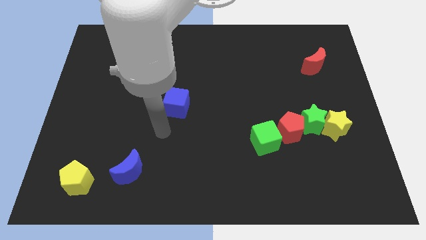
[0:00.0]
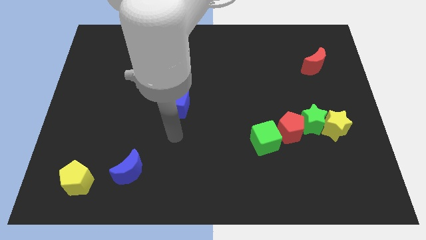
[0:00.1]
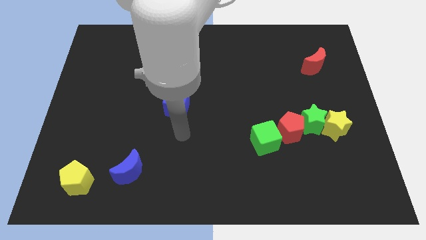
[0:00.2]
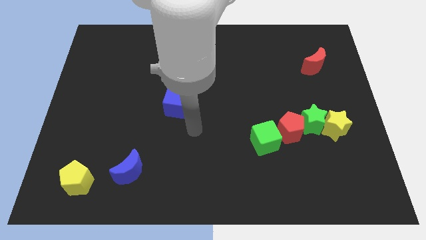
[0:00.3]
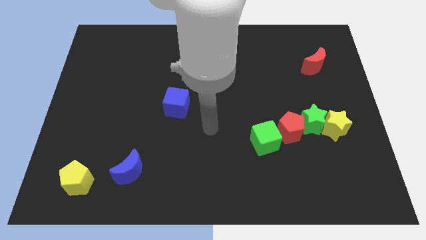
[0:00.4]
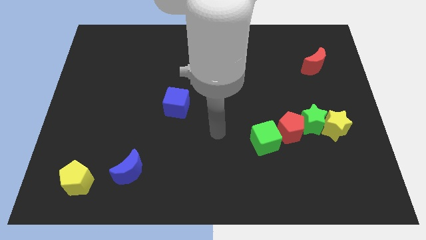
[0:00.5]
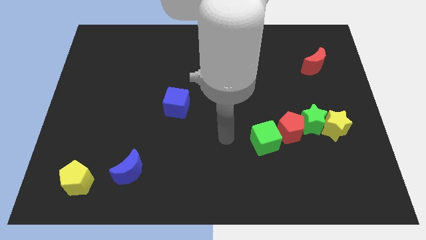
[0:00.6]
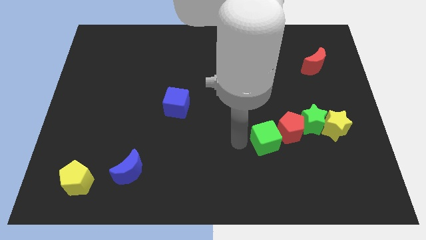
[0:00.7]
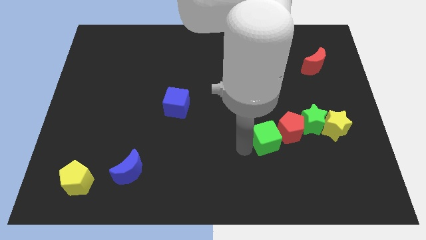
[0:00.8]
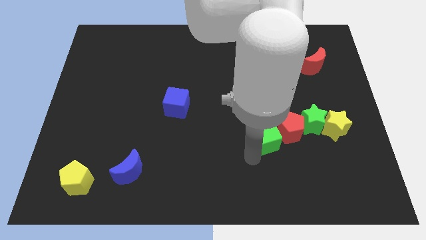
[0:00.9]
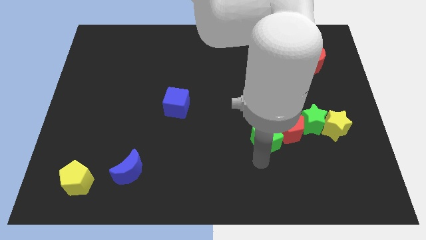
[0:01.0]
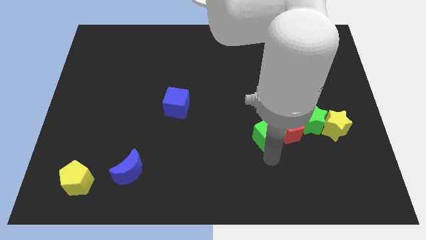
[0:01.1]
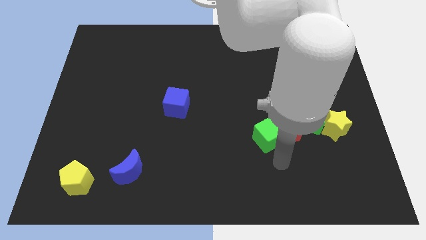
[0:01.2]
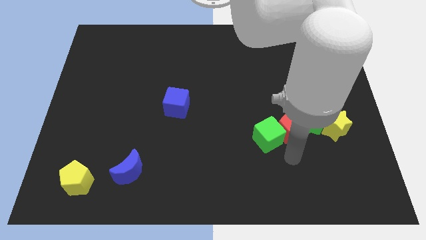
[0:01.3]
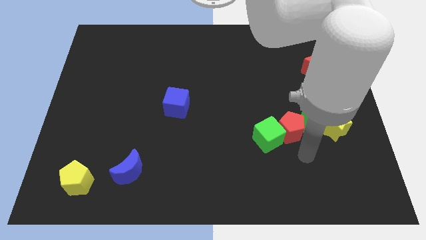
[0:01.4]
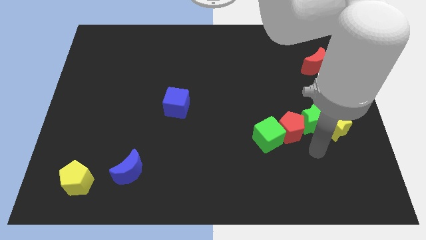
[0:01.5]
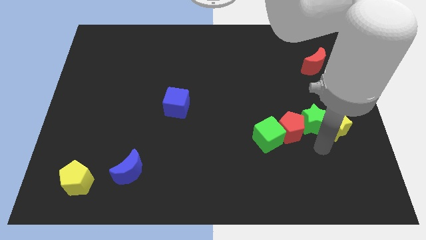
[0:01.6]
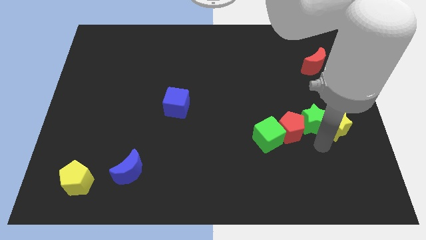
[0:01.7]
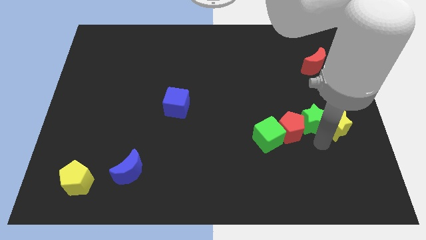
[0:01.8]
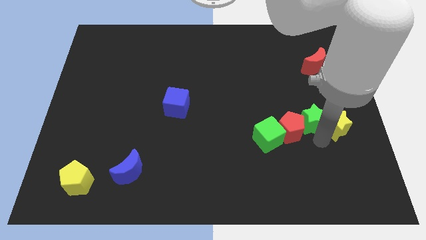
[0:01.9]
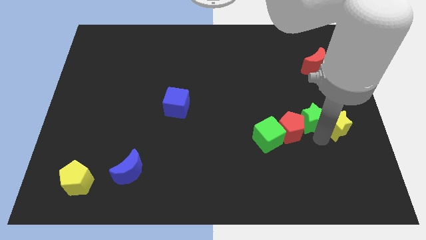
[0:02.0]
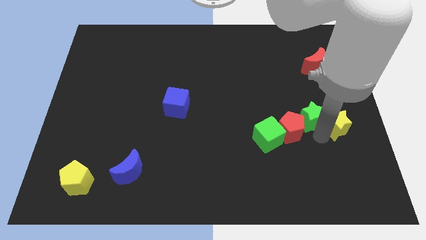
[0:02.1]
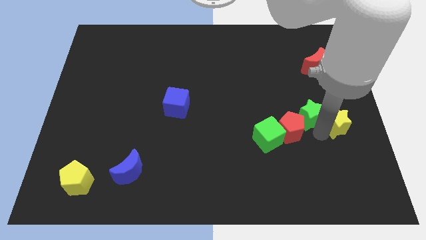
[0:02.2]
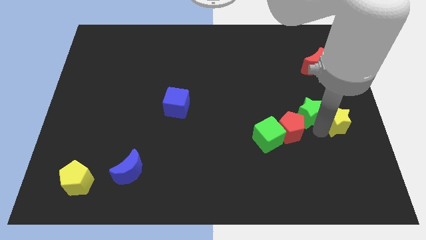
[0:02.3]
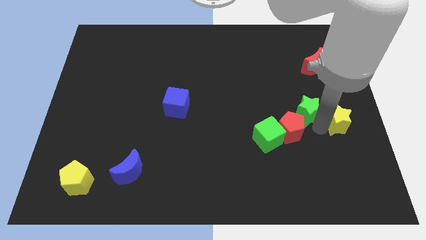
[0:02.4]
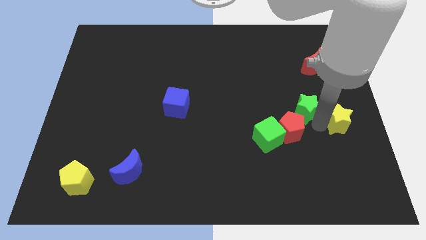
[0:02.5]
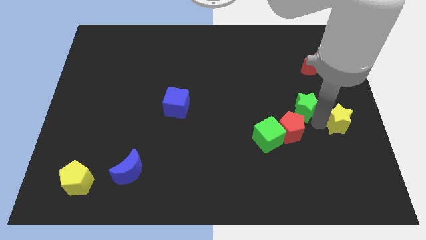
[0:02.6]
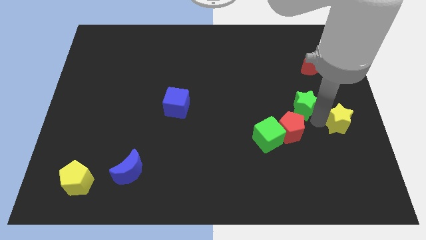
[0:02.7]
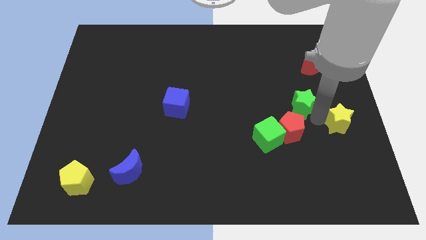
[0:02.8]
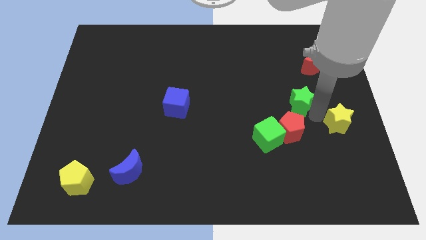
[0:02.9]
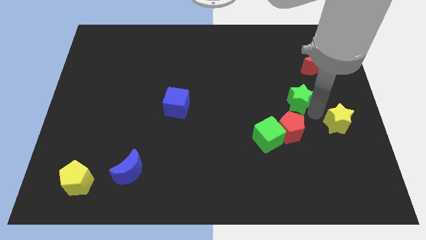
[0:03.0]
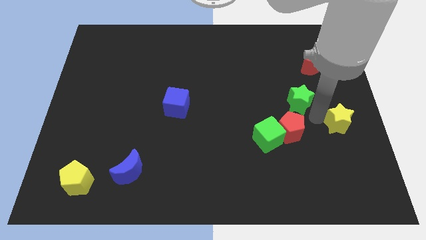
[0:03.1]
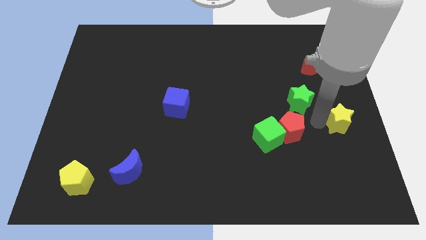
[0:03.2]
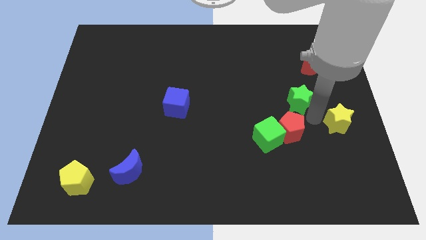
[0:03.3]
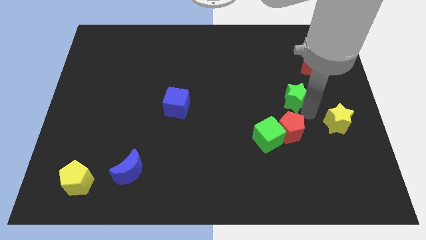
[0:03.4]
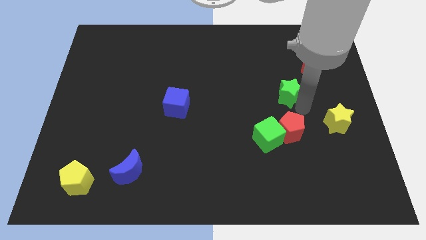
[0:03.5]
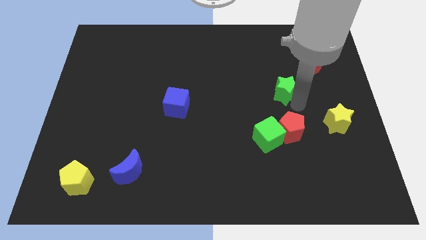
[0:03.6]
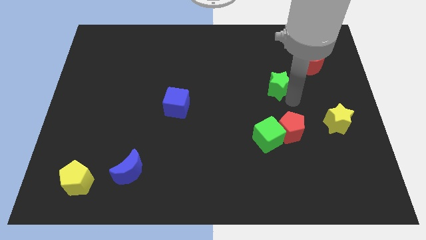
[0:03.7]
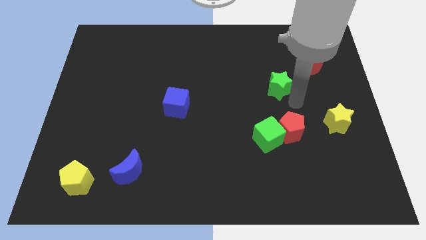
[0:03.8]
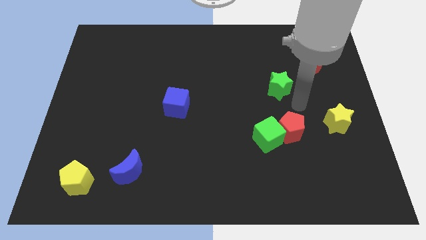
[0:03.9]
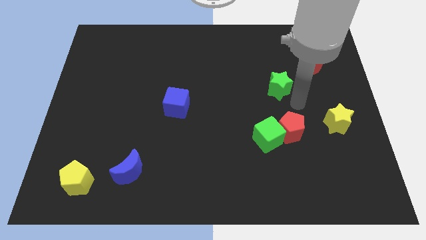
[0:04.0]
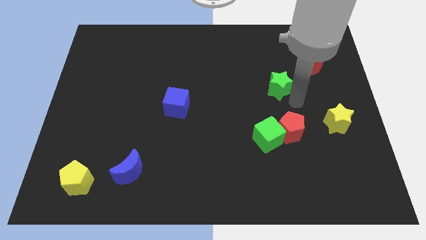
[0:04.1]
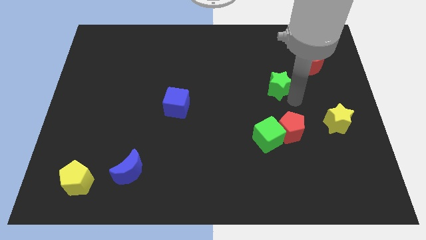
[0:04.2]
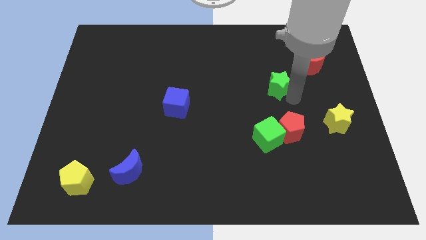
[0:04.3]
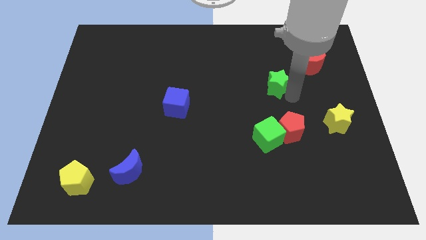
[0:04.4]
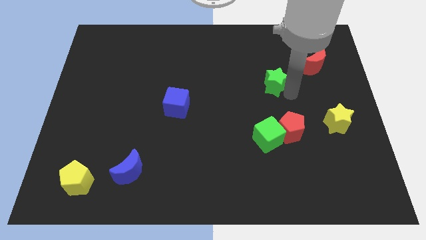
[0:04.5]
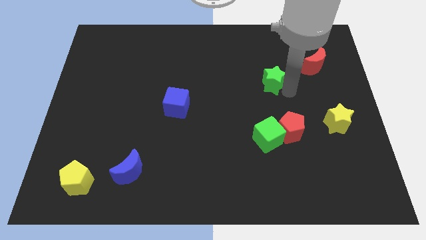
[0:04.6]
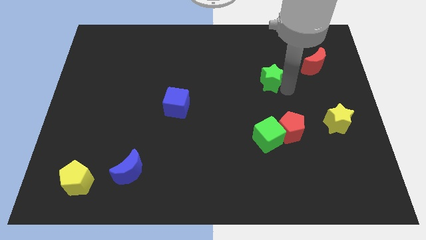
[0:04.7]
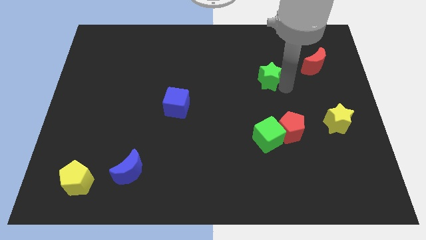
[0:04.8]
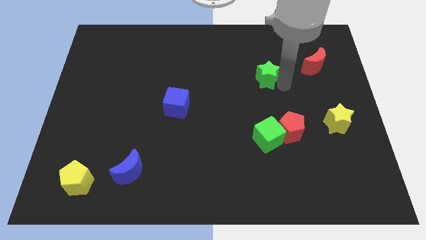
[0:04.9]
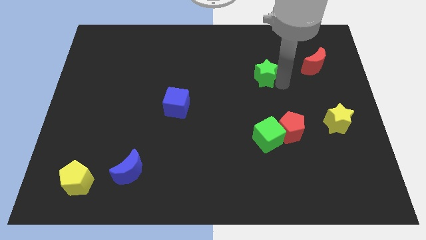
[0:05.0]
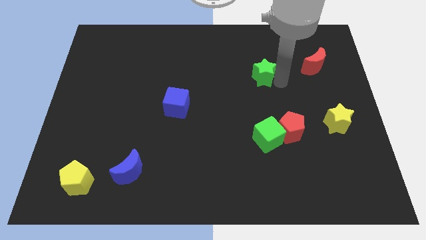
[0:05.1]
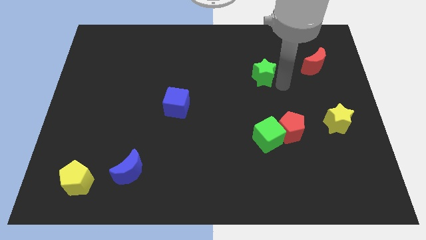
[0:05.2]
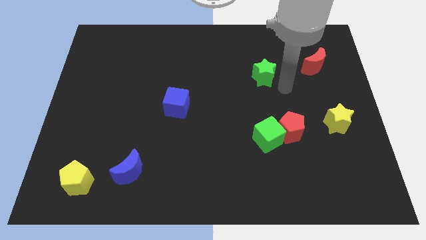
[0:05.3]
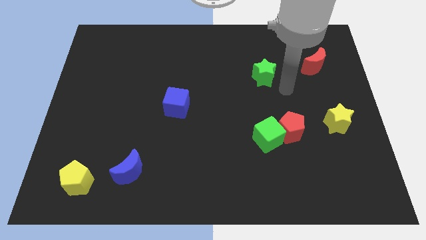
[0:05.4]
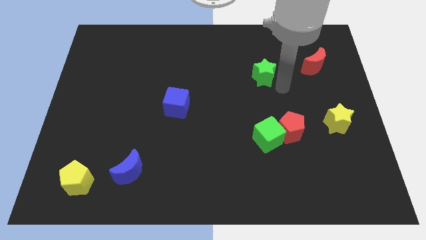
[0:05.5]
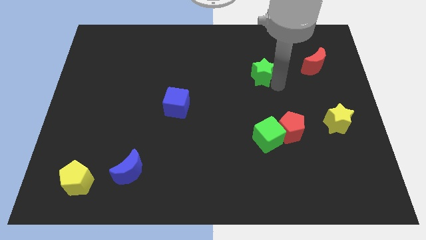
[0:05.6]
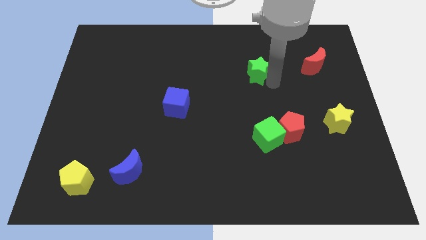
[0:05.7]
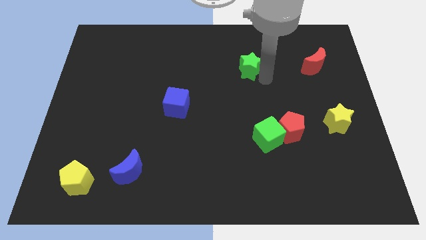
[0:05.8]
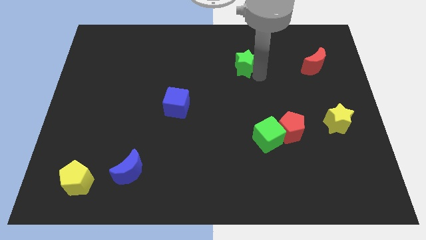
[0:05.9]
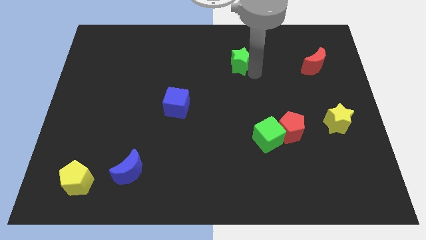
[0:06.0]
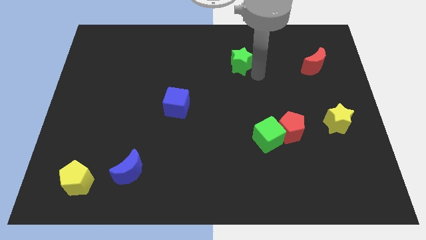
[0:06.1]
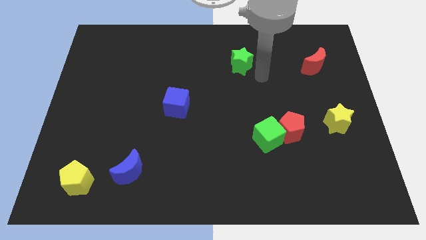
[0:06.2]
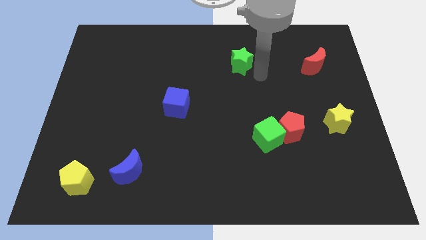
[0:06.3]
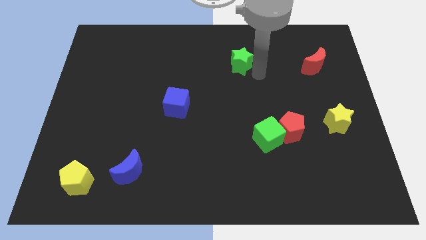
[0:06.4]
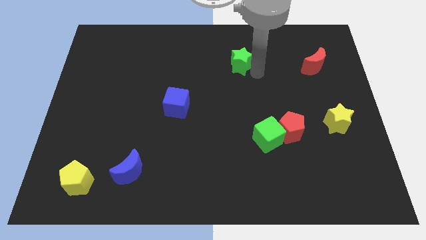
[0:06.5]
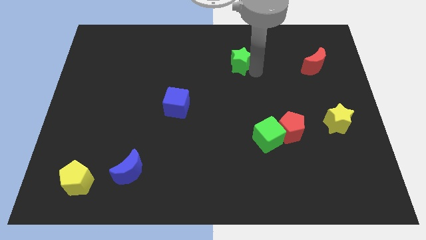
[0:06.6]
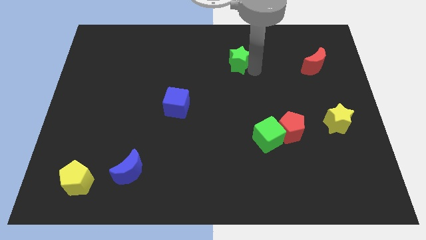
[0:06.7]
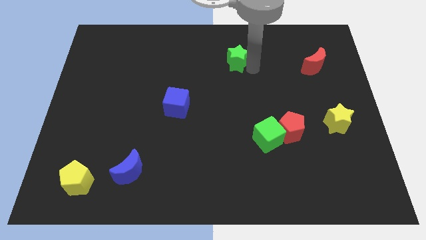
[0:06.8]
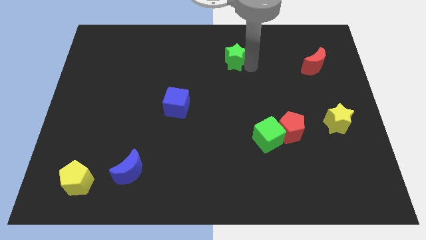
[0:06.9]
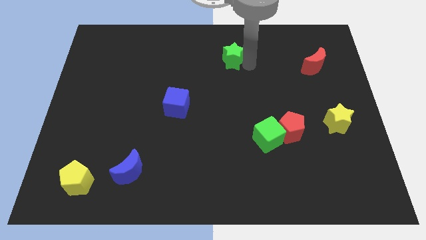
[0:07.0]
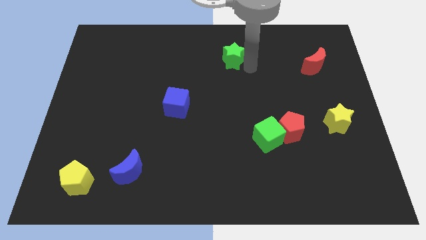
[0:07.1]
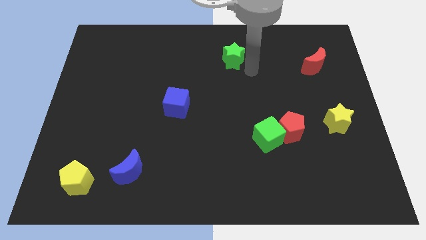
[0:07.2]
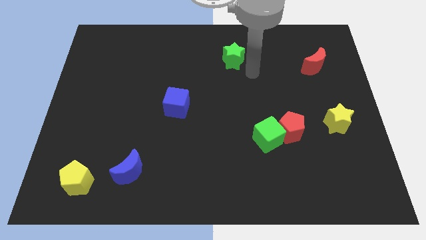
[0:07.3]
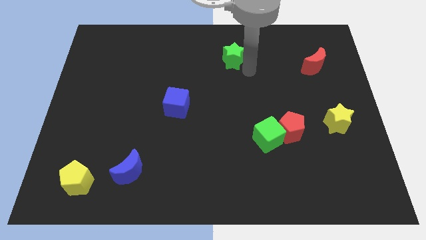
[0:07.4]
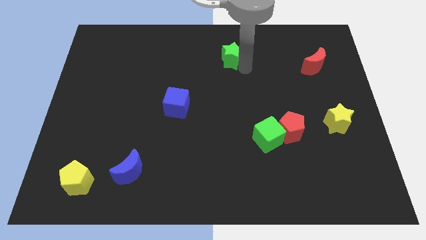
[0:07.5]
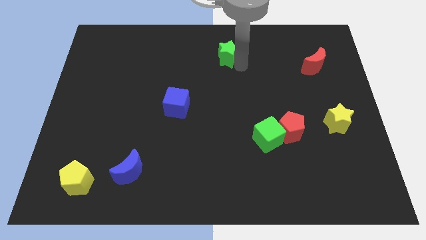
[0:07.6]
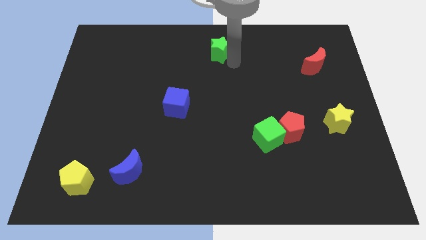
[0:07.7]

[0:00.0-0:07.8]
move the green star to the top
